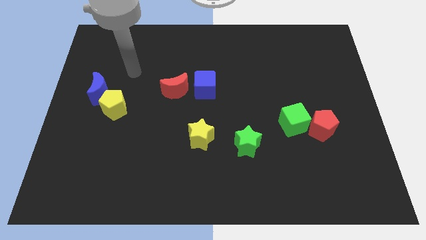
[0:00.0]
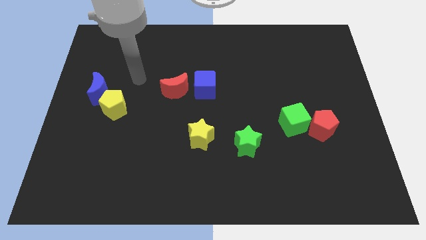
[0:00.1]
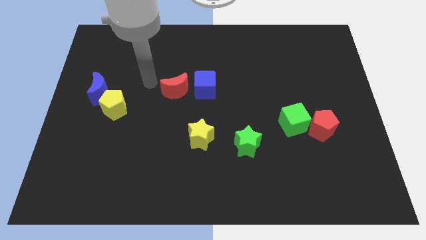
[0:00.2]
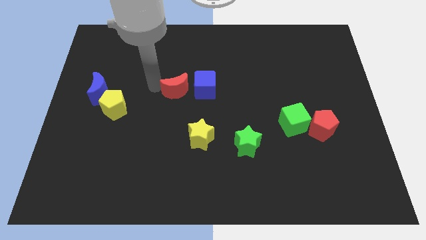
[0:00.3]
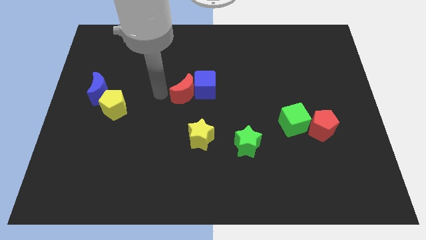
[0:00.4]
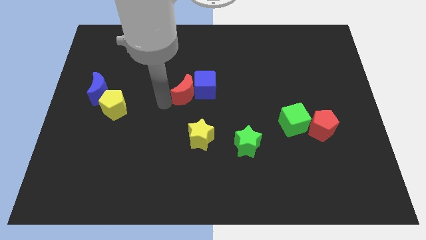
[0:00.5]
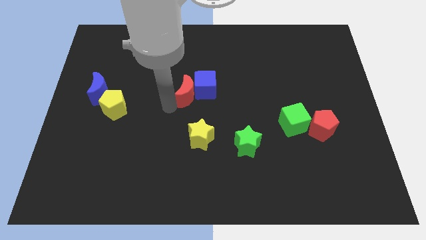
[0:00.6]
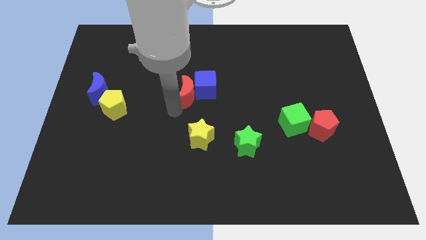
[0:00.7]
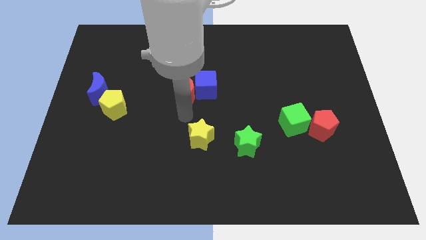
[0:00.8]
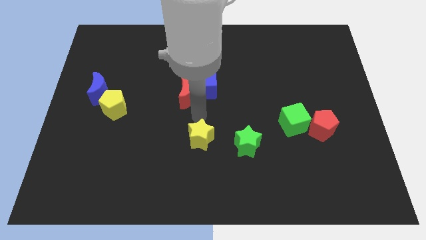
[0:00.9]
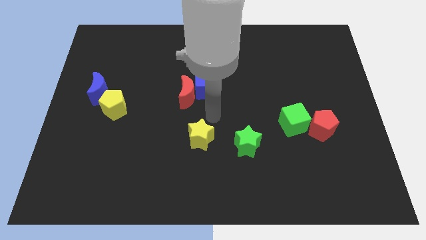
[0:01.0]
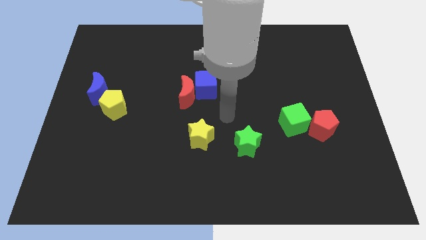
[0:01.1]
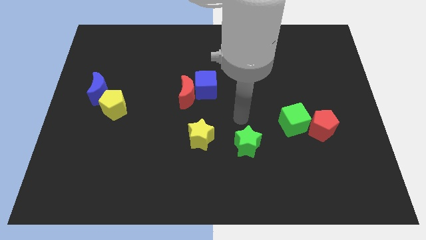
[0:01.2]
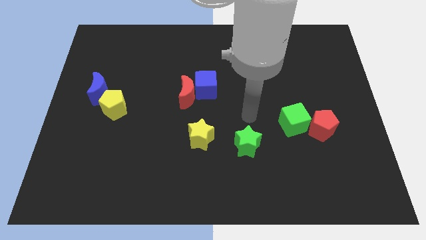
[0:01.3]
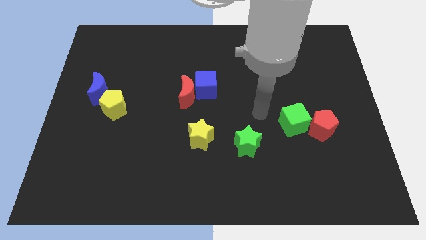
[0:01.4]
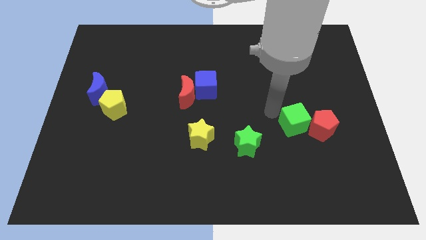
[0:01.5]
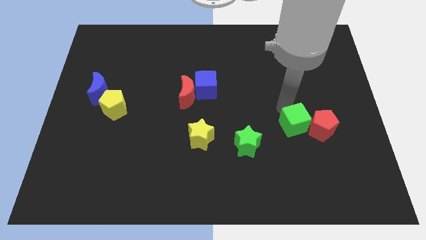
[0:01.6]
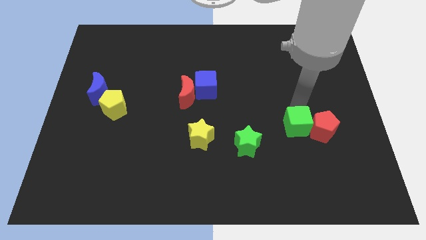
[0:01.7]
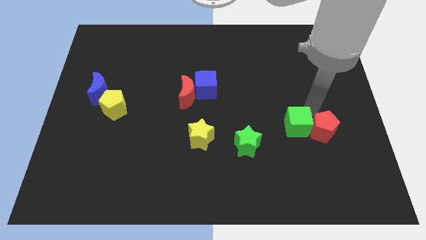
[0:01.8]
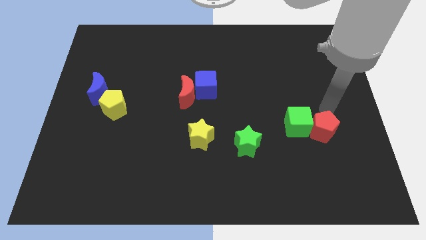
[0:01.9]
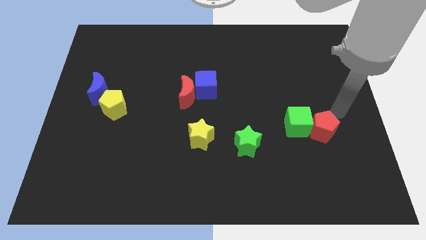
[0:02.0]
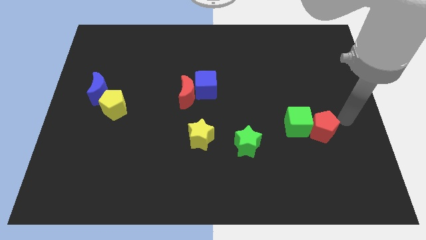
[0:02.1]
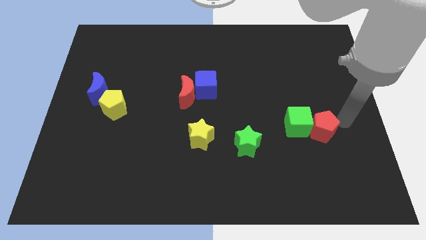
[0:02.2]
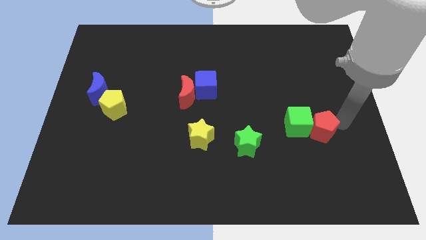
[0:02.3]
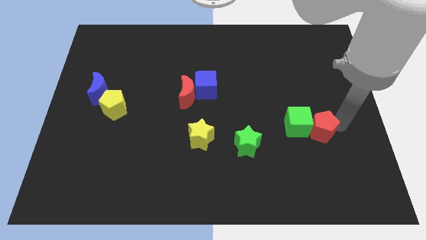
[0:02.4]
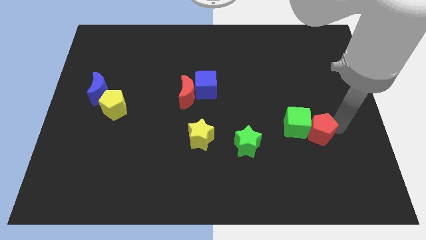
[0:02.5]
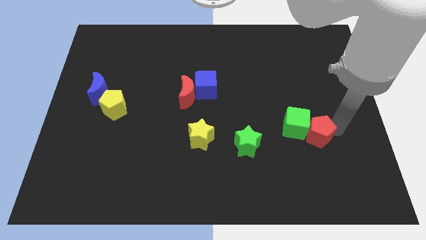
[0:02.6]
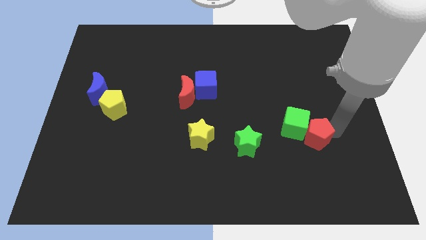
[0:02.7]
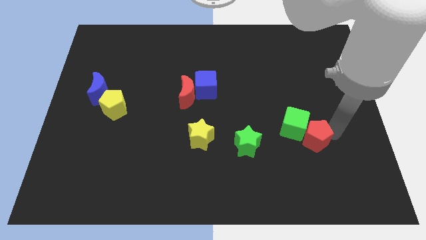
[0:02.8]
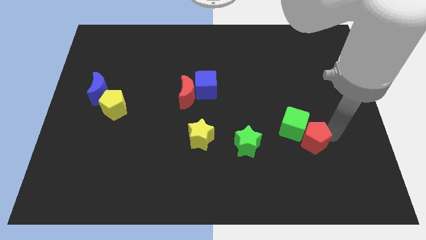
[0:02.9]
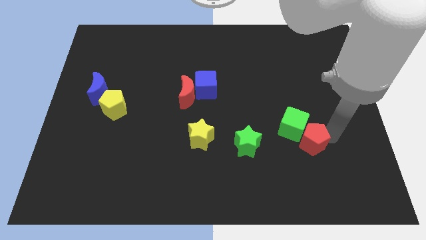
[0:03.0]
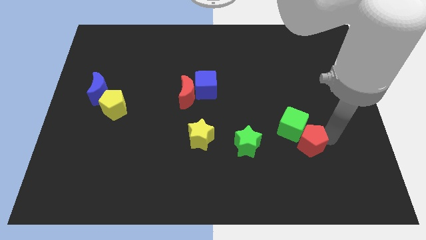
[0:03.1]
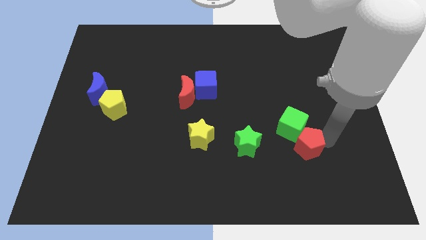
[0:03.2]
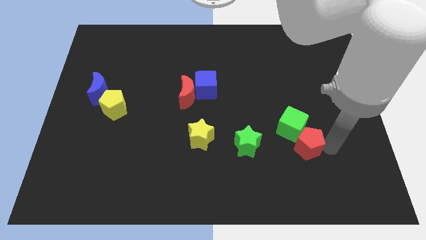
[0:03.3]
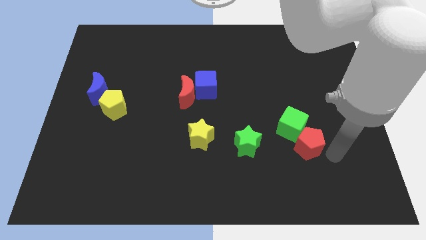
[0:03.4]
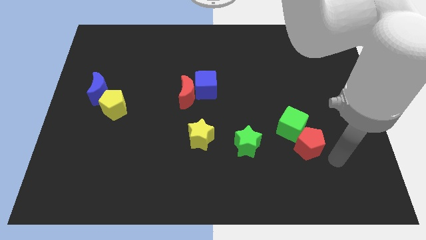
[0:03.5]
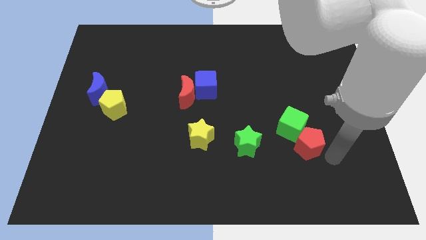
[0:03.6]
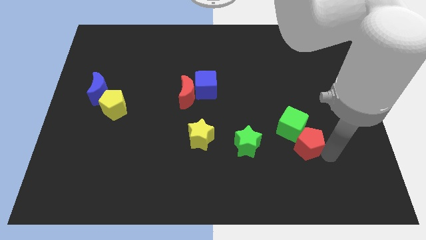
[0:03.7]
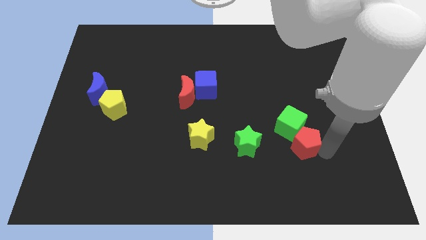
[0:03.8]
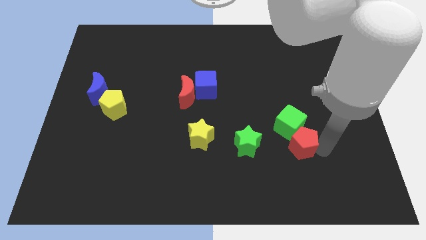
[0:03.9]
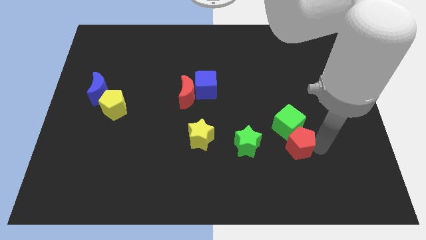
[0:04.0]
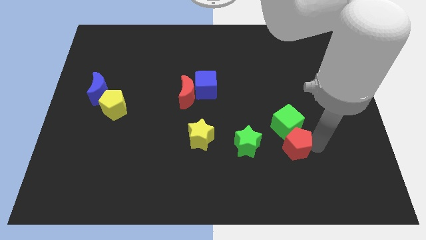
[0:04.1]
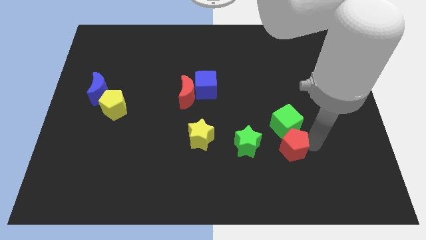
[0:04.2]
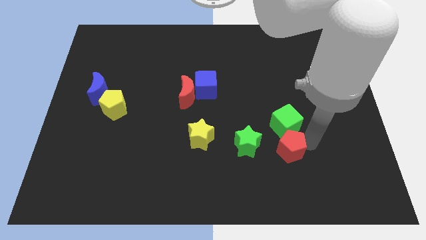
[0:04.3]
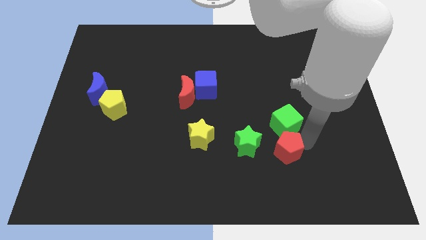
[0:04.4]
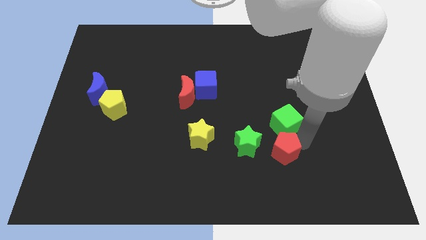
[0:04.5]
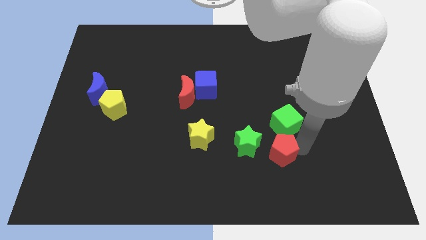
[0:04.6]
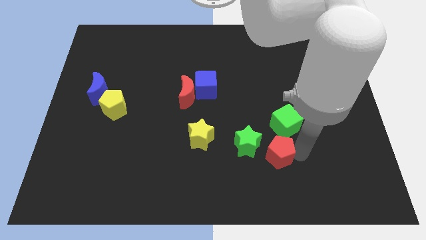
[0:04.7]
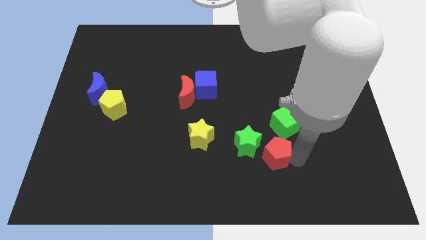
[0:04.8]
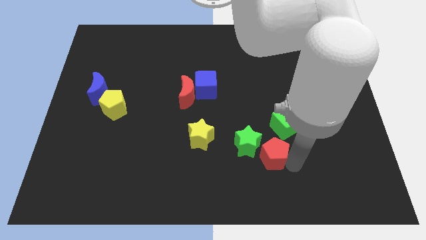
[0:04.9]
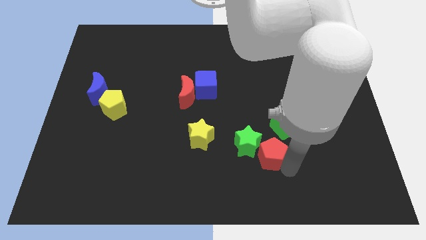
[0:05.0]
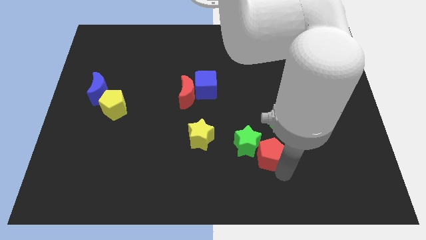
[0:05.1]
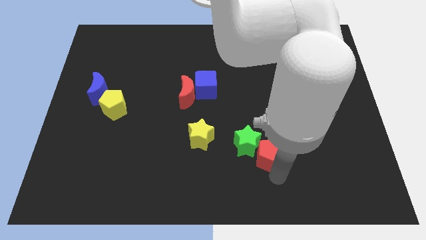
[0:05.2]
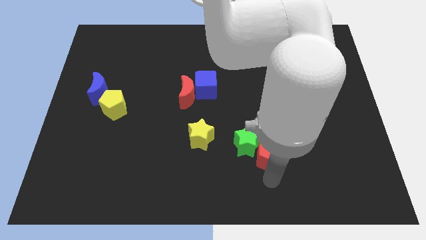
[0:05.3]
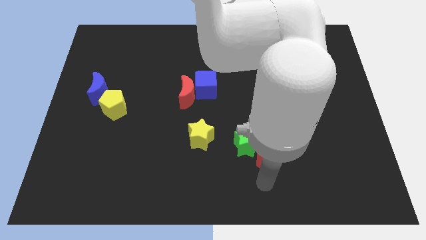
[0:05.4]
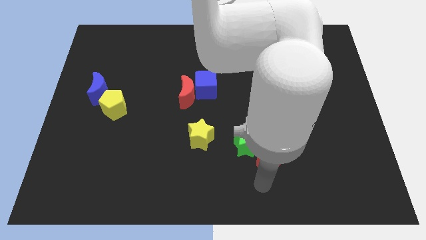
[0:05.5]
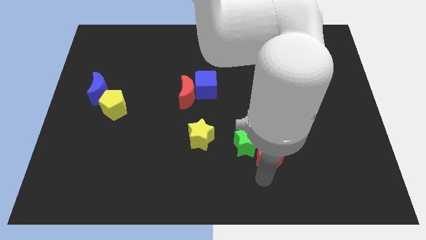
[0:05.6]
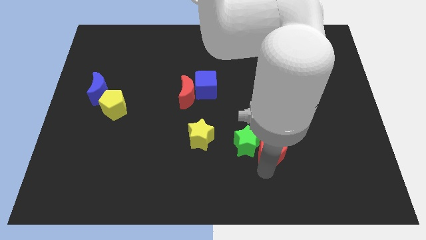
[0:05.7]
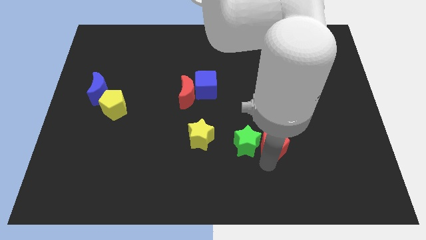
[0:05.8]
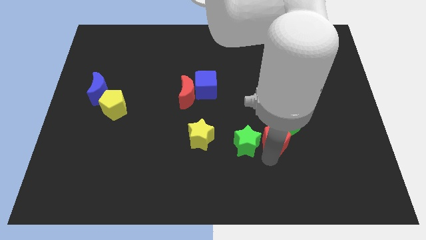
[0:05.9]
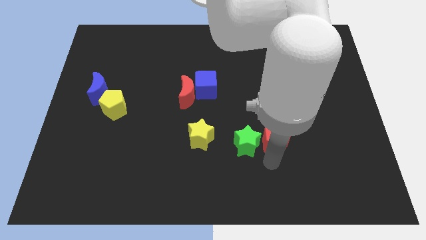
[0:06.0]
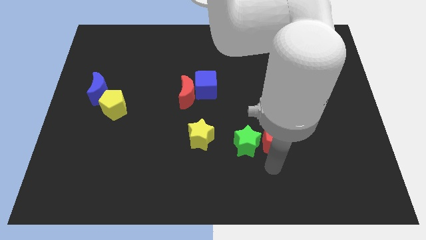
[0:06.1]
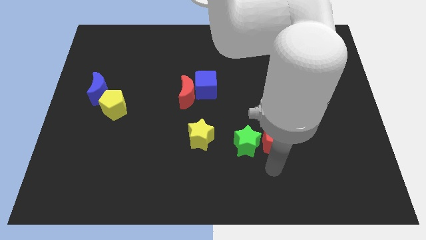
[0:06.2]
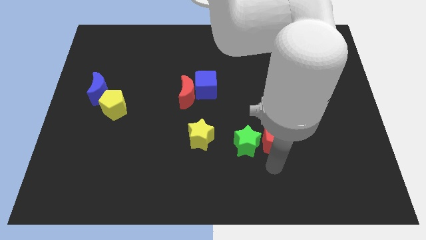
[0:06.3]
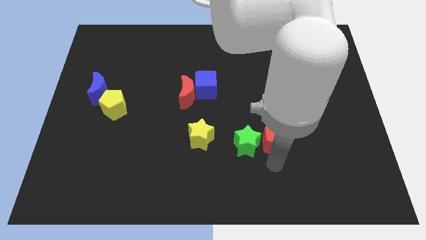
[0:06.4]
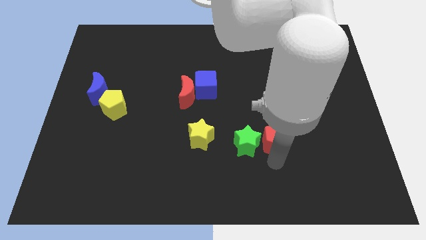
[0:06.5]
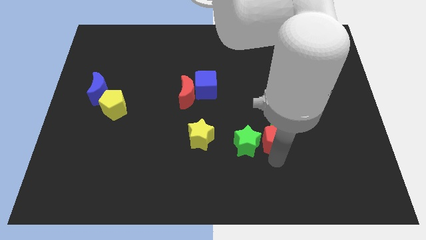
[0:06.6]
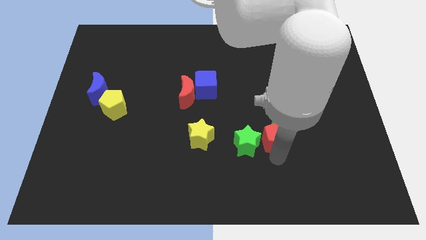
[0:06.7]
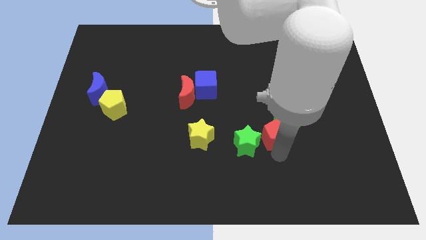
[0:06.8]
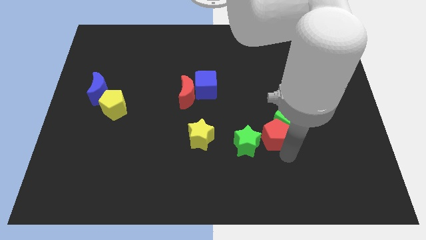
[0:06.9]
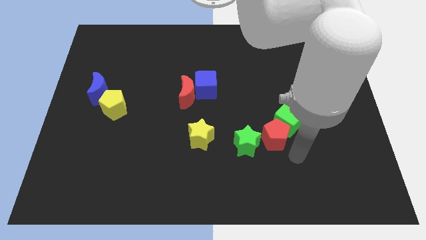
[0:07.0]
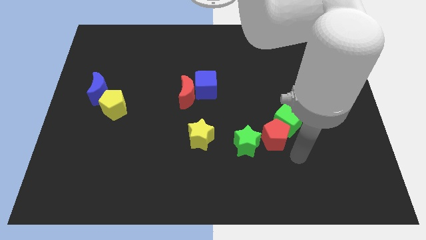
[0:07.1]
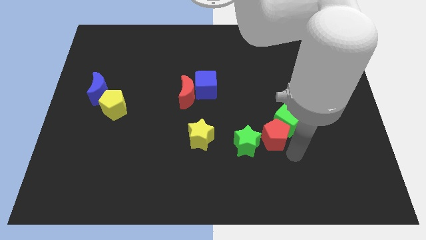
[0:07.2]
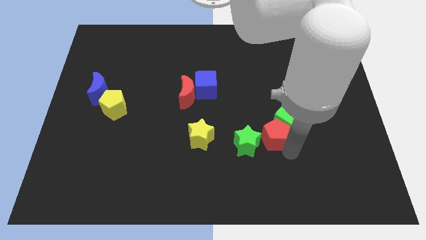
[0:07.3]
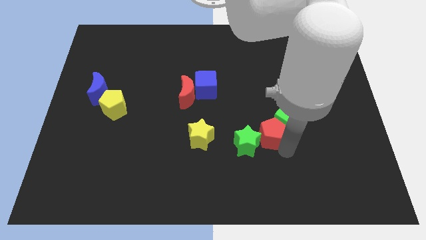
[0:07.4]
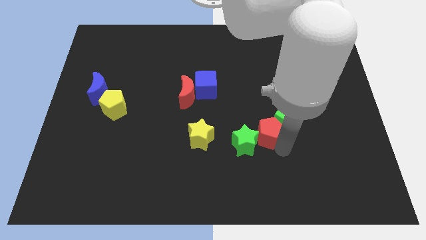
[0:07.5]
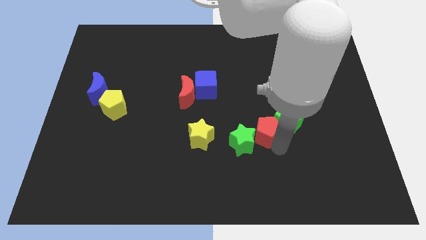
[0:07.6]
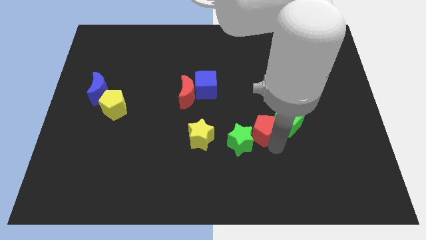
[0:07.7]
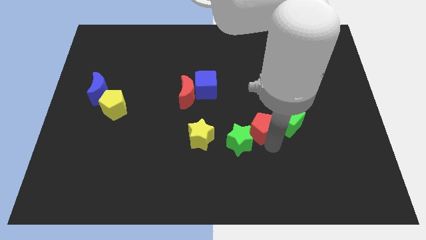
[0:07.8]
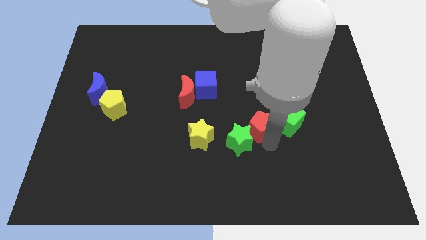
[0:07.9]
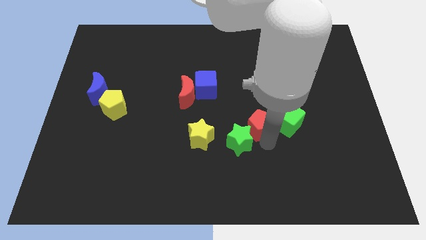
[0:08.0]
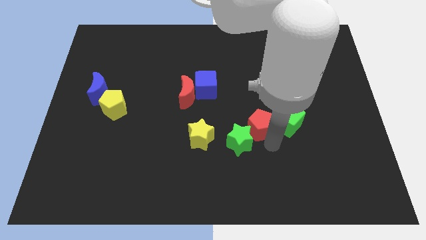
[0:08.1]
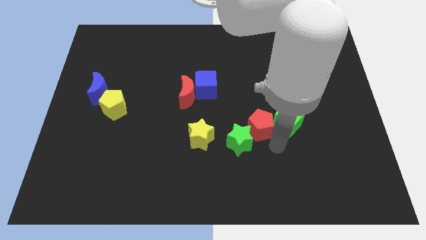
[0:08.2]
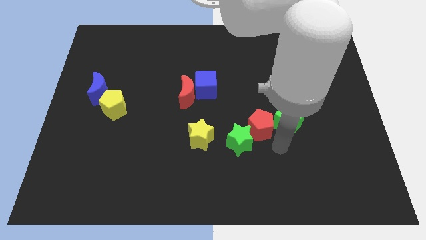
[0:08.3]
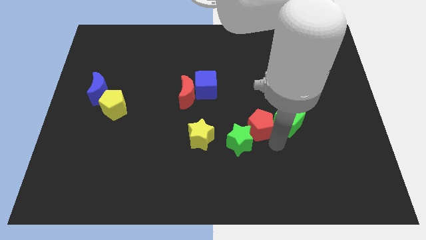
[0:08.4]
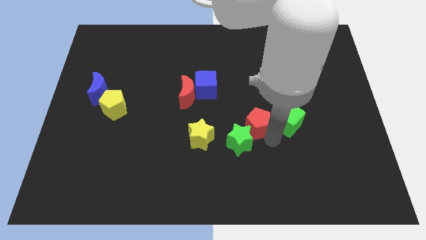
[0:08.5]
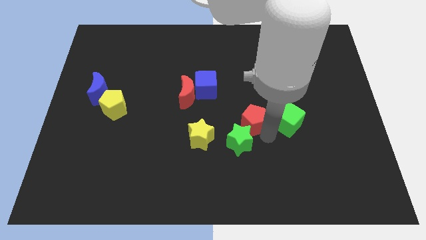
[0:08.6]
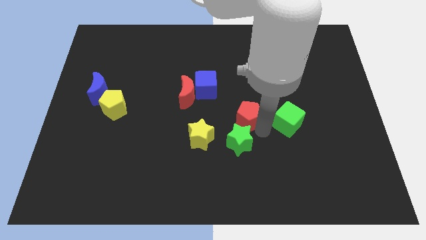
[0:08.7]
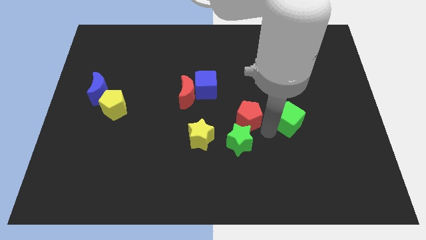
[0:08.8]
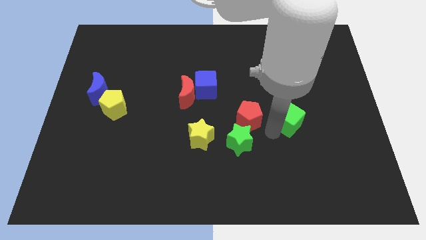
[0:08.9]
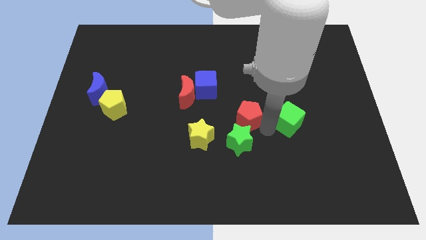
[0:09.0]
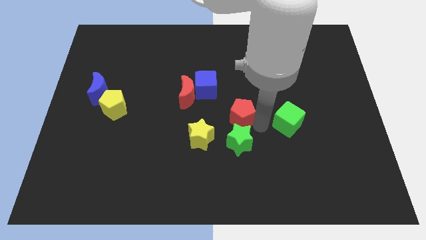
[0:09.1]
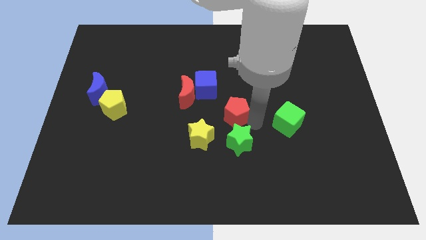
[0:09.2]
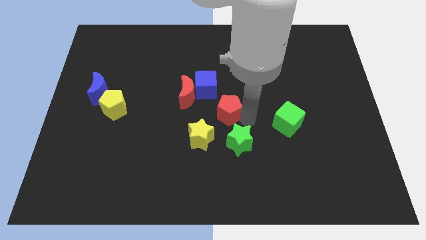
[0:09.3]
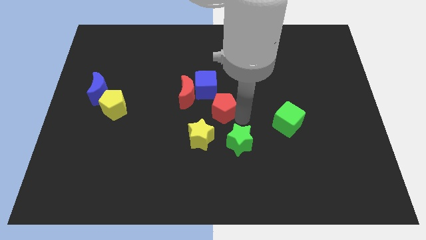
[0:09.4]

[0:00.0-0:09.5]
put the red pentagon to the top side of the yellow star
